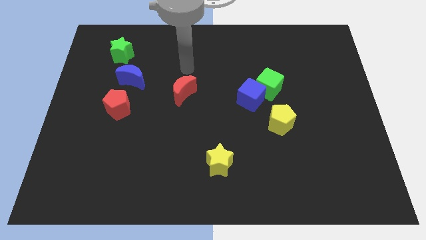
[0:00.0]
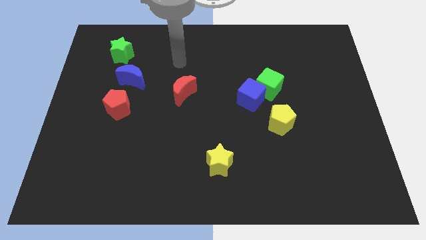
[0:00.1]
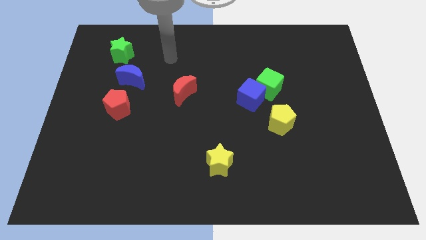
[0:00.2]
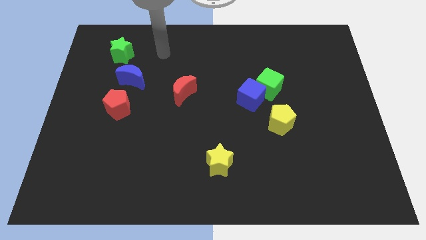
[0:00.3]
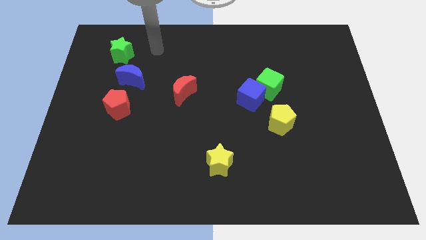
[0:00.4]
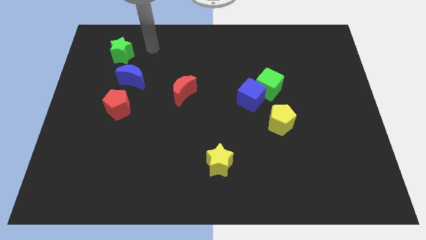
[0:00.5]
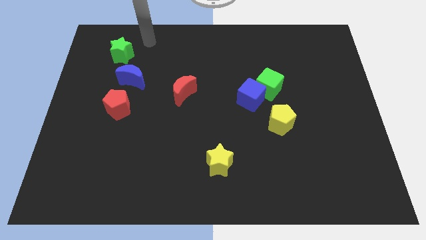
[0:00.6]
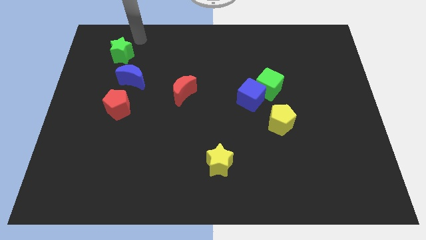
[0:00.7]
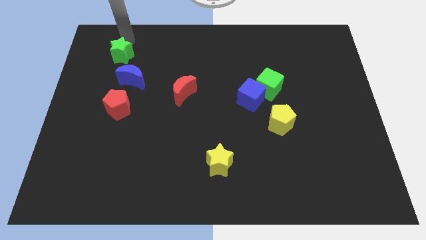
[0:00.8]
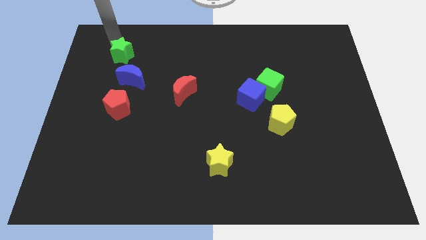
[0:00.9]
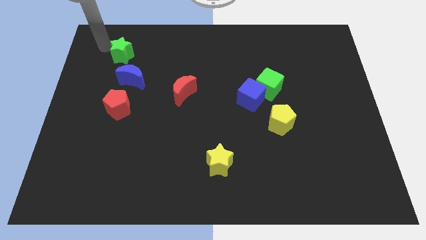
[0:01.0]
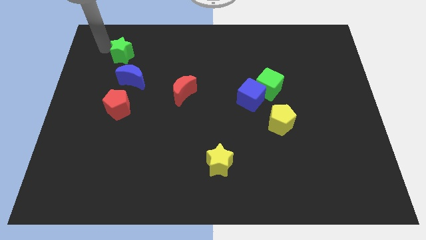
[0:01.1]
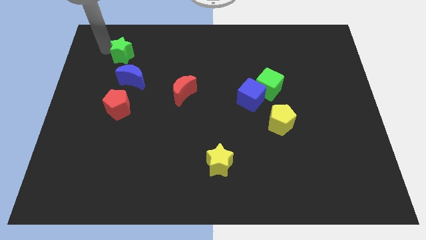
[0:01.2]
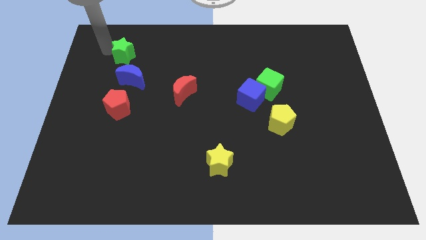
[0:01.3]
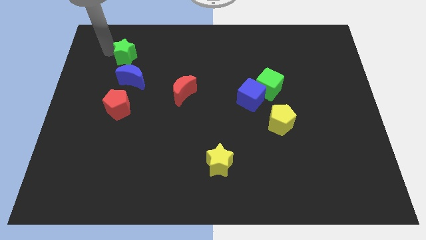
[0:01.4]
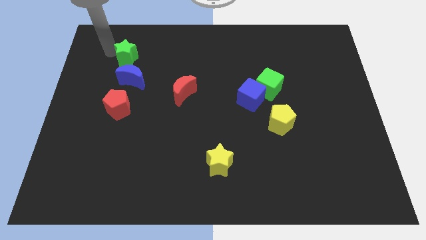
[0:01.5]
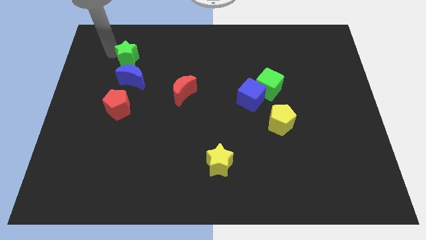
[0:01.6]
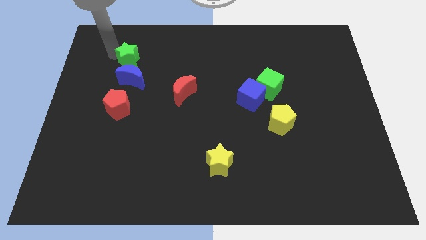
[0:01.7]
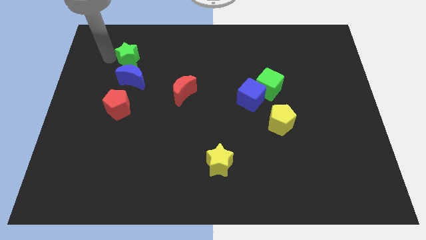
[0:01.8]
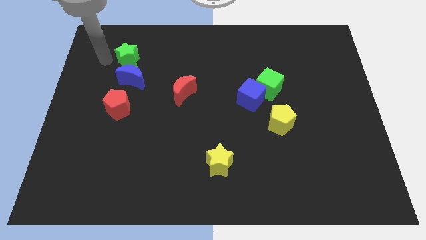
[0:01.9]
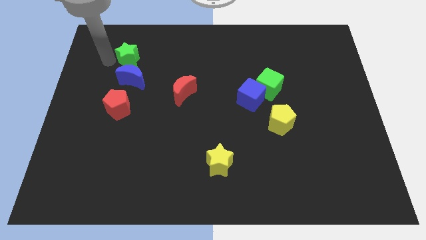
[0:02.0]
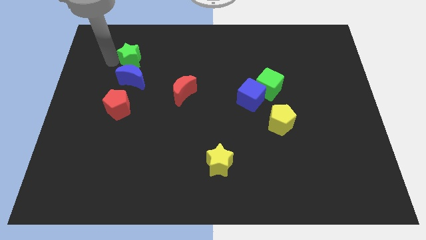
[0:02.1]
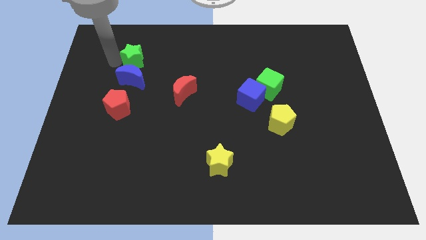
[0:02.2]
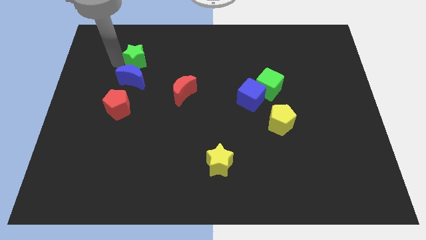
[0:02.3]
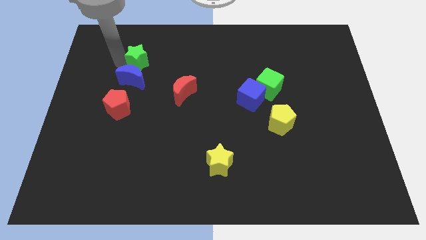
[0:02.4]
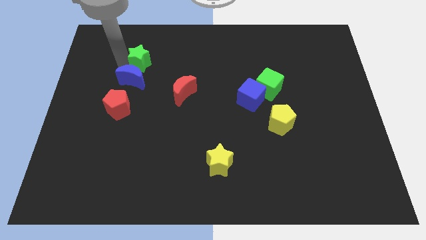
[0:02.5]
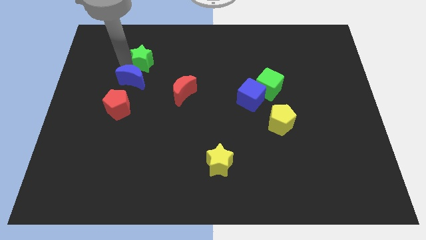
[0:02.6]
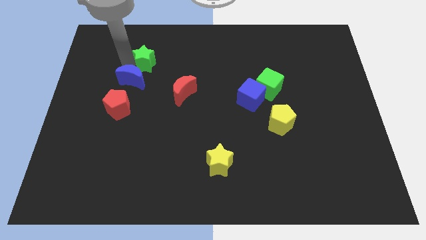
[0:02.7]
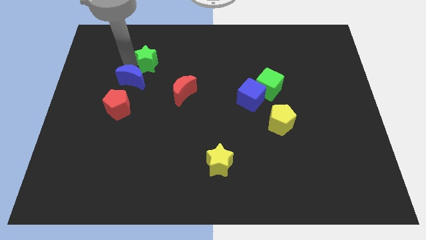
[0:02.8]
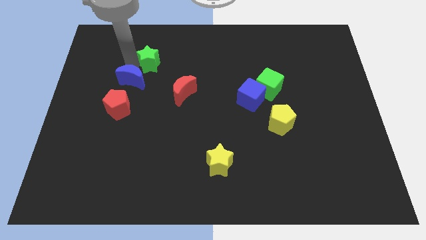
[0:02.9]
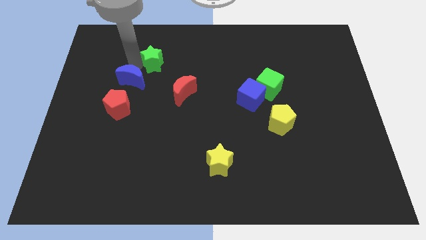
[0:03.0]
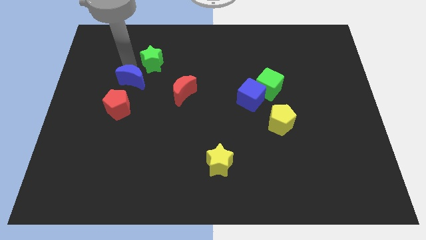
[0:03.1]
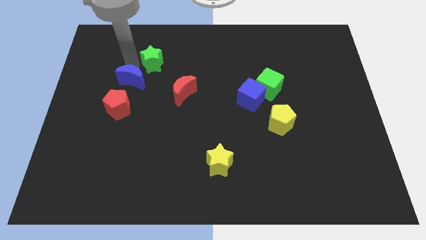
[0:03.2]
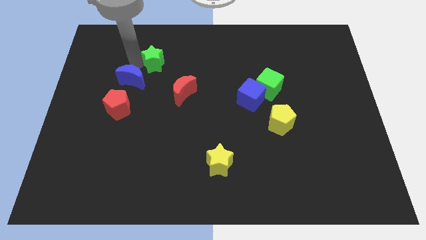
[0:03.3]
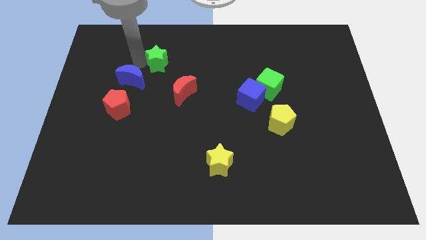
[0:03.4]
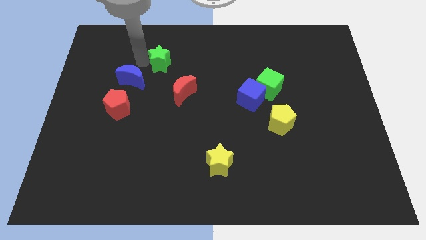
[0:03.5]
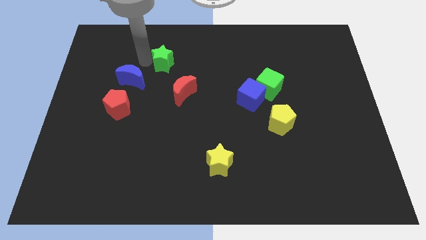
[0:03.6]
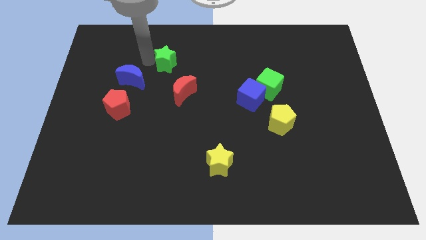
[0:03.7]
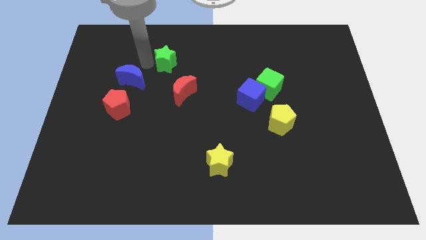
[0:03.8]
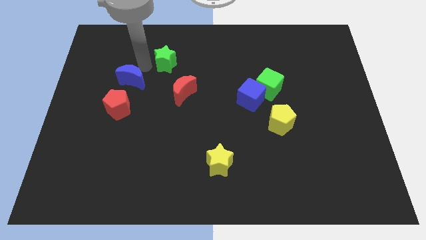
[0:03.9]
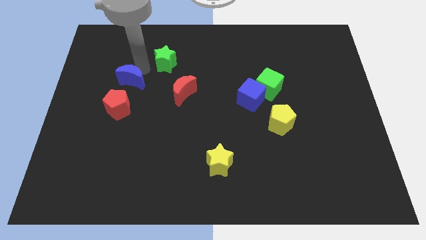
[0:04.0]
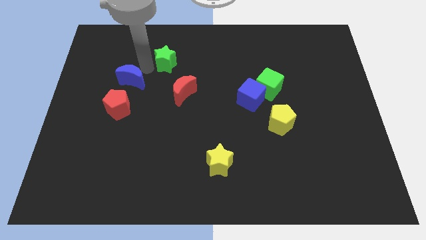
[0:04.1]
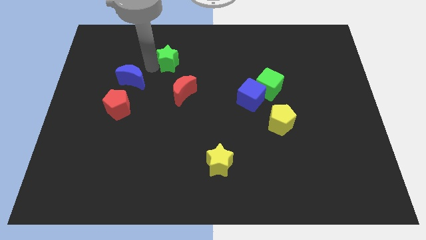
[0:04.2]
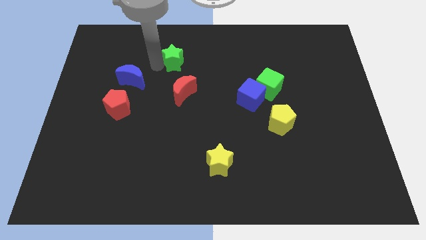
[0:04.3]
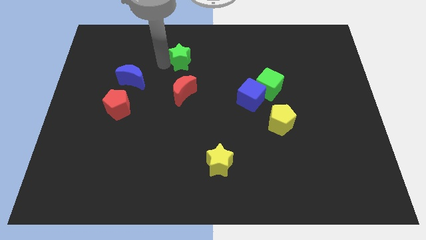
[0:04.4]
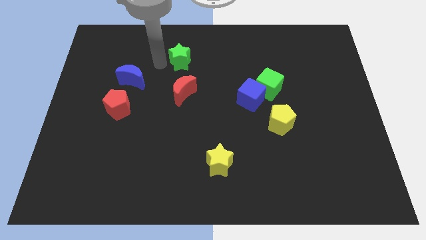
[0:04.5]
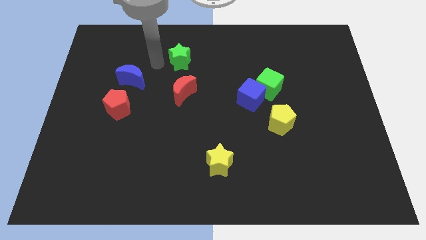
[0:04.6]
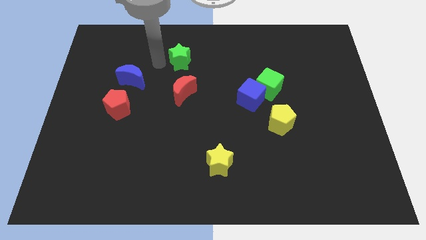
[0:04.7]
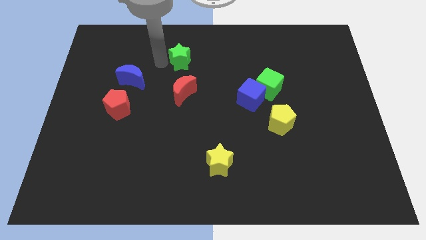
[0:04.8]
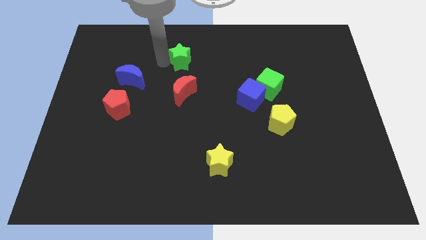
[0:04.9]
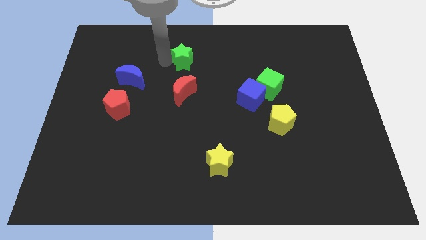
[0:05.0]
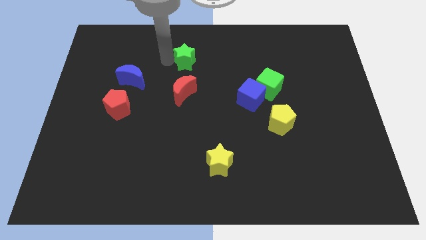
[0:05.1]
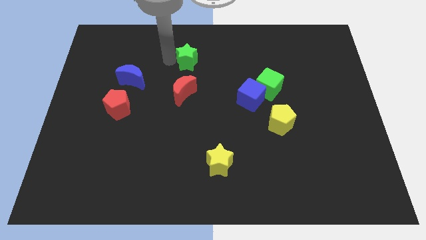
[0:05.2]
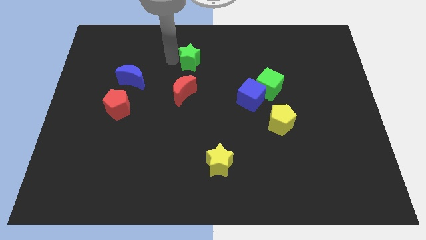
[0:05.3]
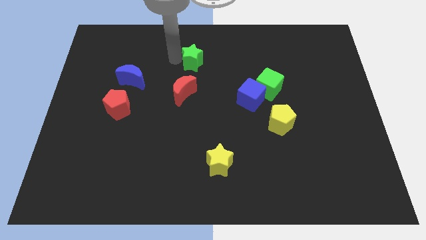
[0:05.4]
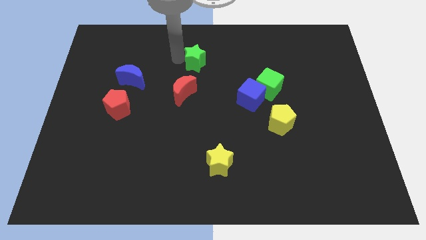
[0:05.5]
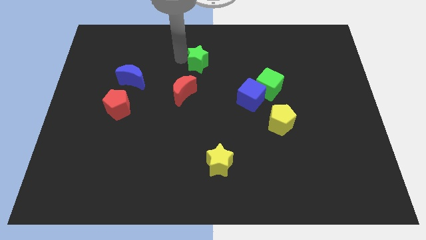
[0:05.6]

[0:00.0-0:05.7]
push the green star to the right

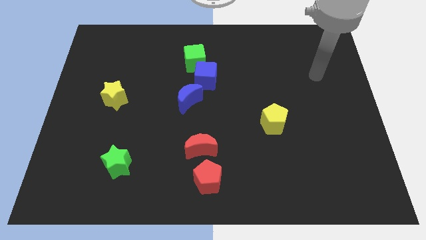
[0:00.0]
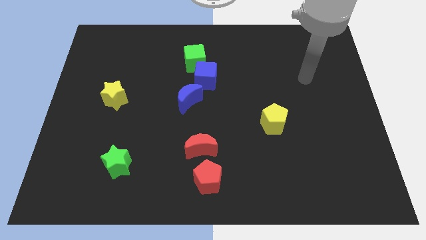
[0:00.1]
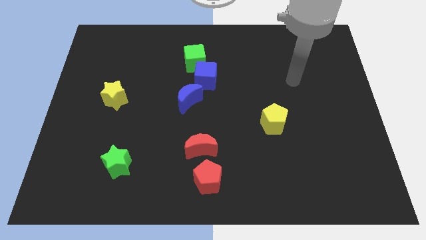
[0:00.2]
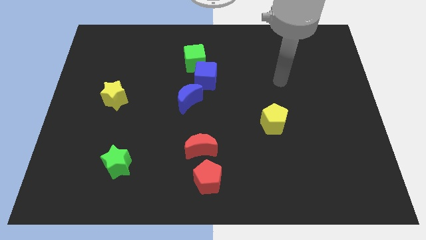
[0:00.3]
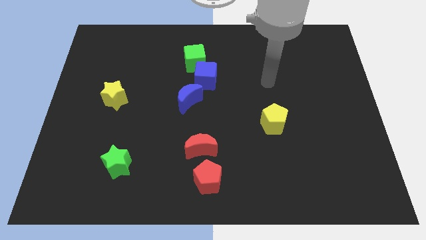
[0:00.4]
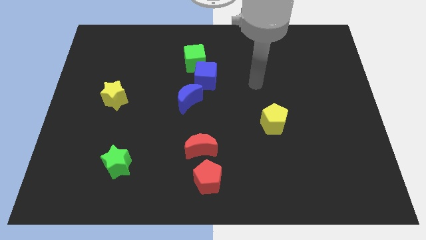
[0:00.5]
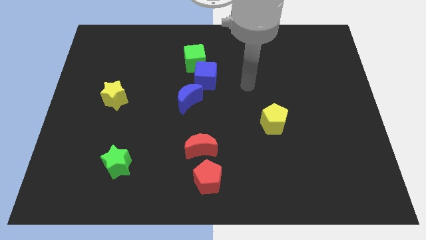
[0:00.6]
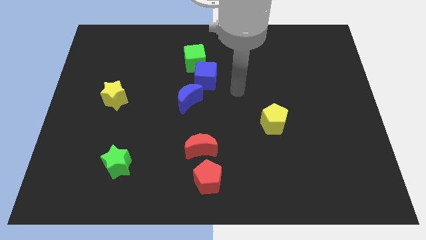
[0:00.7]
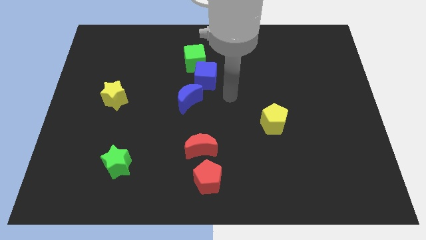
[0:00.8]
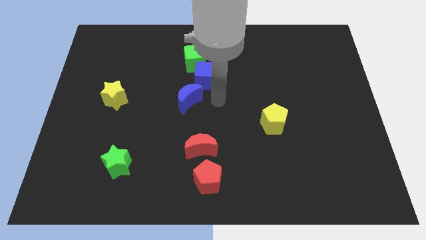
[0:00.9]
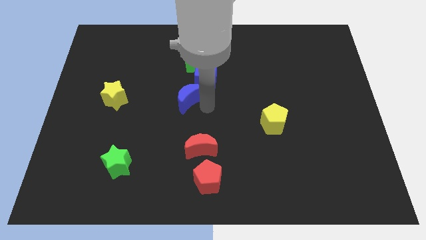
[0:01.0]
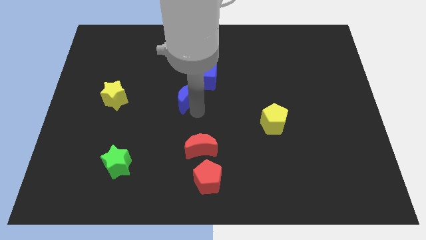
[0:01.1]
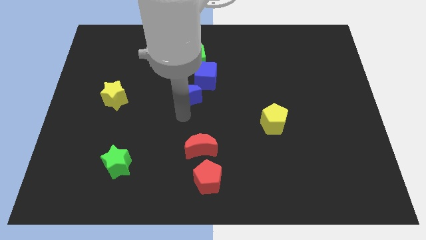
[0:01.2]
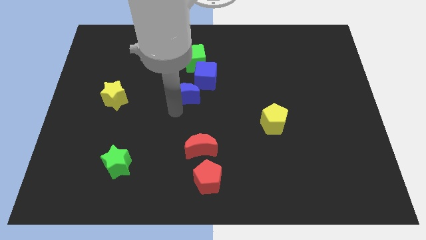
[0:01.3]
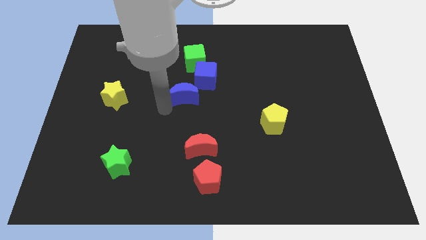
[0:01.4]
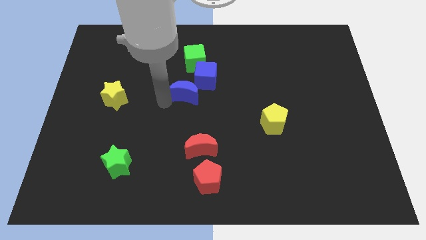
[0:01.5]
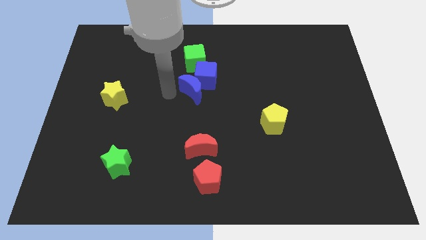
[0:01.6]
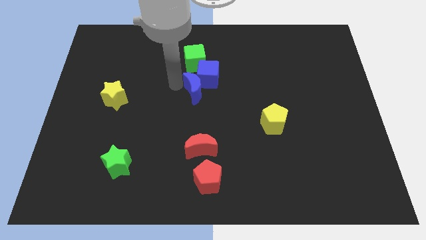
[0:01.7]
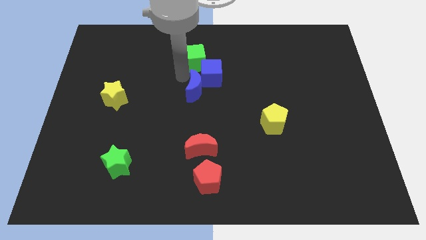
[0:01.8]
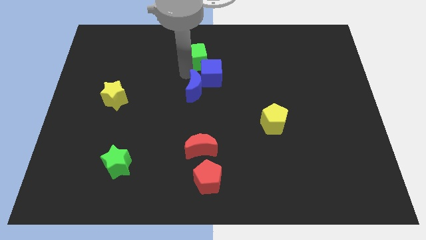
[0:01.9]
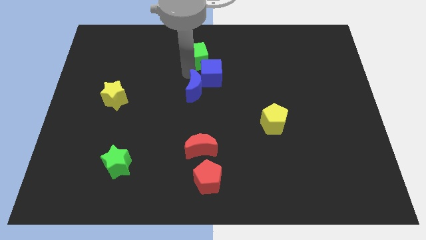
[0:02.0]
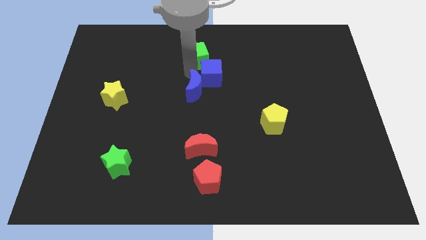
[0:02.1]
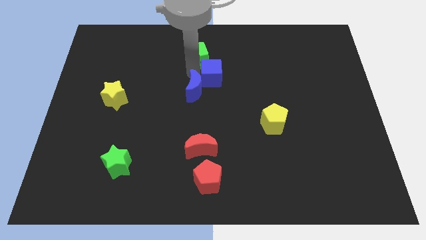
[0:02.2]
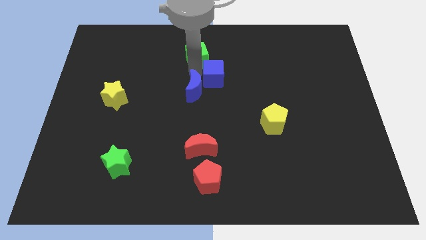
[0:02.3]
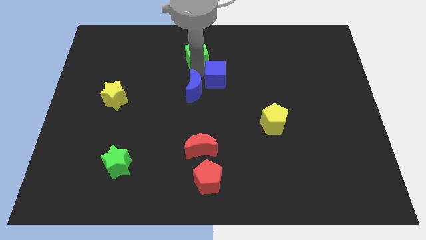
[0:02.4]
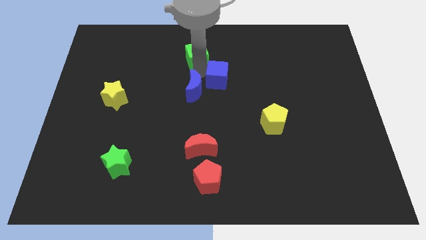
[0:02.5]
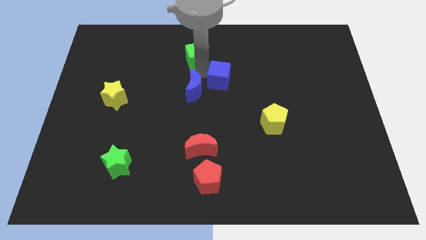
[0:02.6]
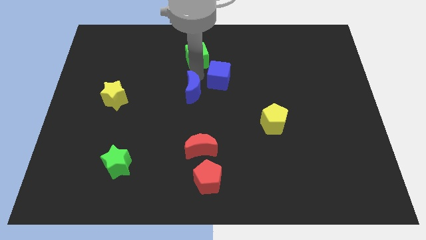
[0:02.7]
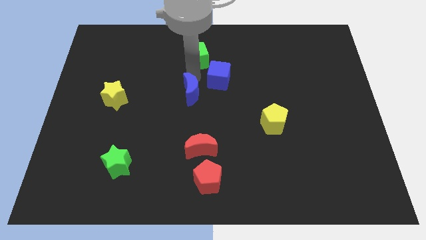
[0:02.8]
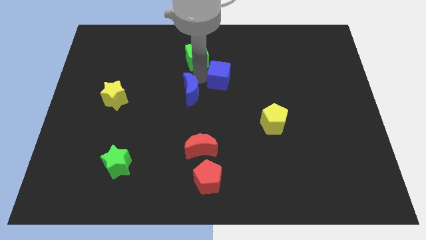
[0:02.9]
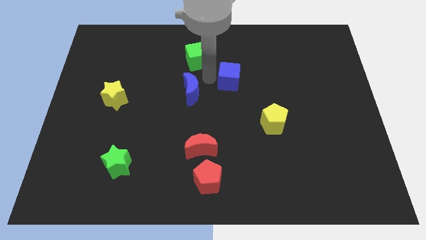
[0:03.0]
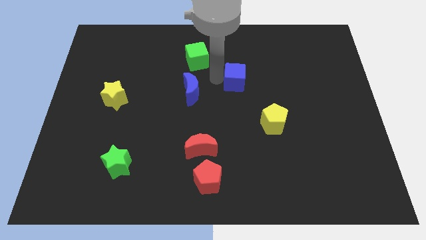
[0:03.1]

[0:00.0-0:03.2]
move the blue cube somewhat right
